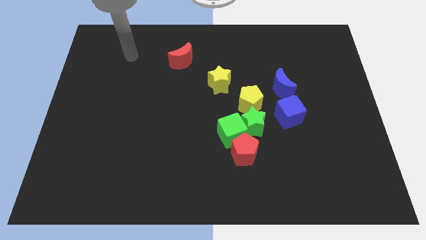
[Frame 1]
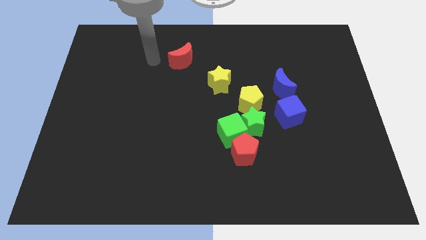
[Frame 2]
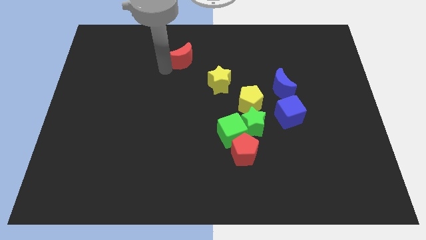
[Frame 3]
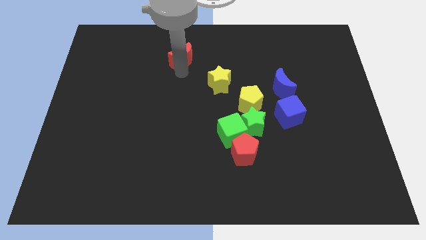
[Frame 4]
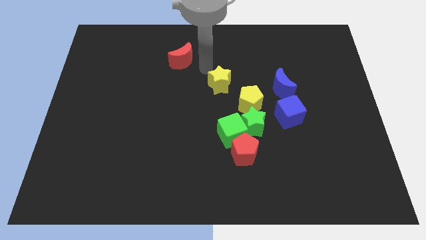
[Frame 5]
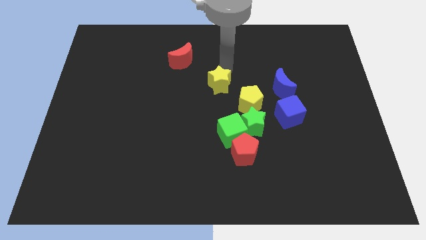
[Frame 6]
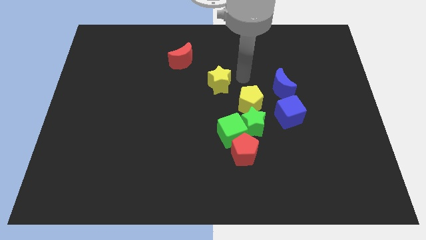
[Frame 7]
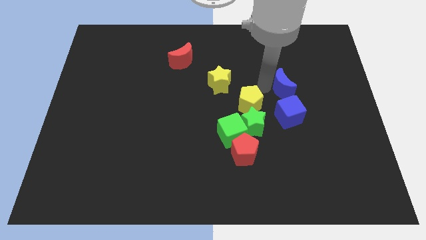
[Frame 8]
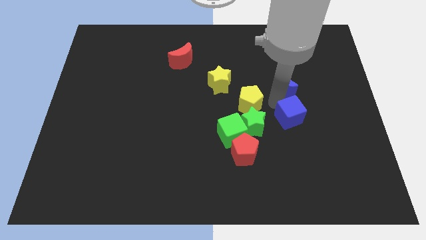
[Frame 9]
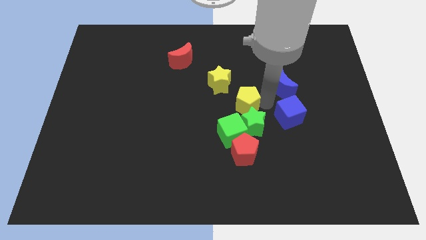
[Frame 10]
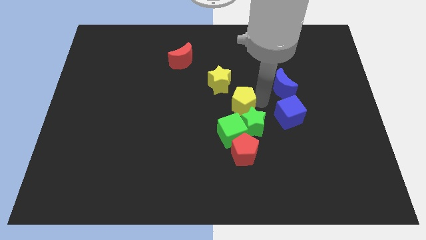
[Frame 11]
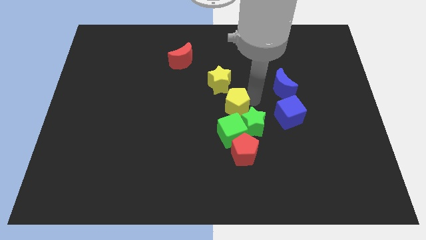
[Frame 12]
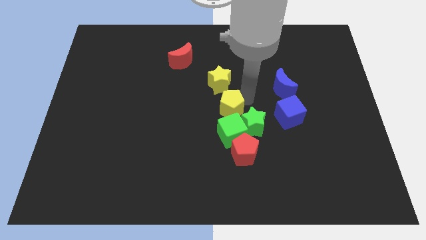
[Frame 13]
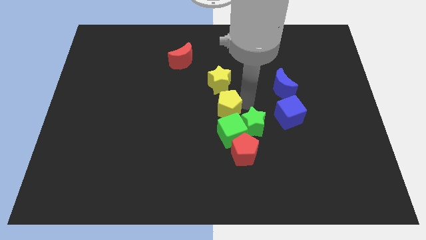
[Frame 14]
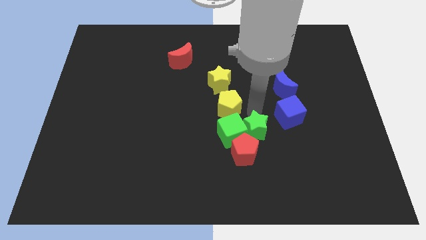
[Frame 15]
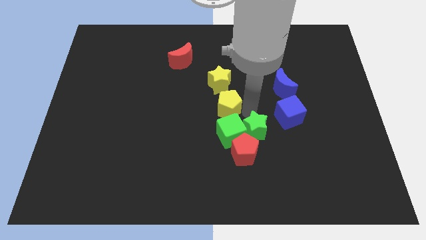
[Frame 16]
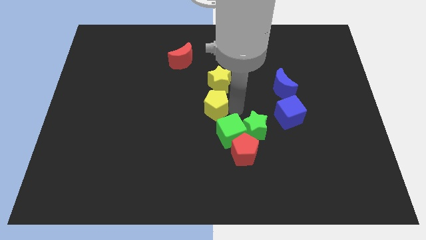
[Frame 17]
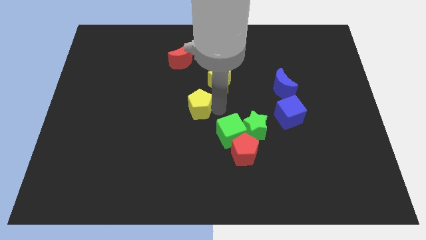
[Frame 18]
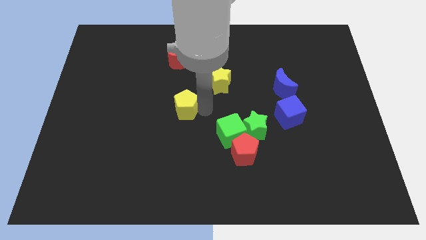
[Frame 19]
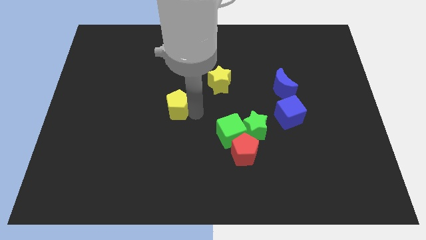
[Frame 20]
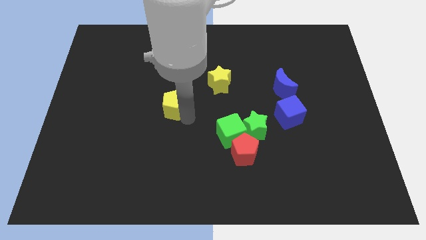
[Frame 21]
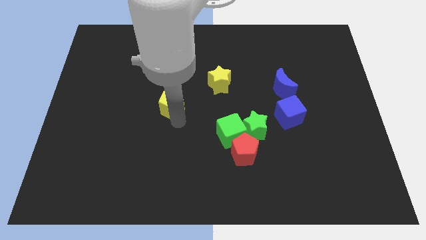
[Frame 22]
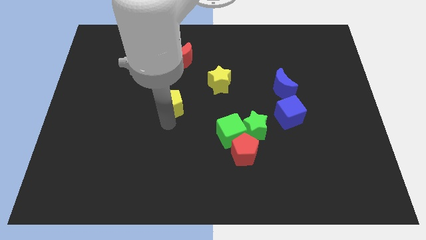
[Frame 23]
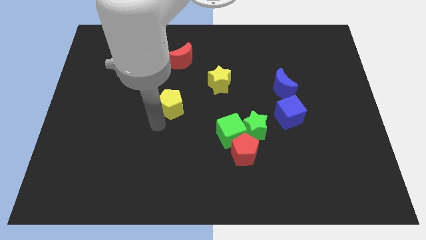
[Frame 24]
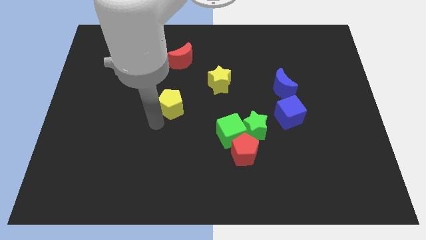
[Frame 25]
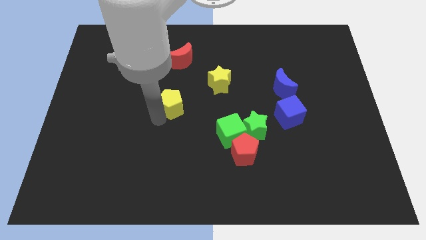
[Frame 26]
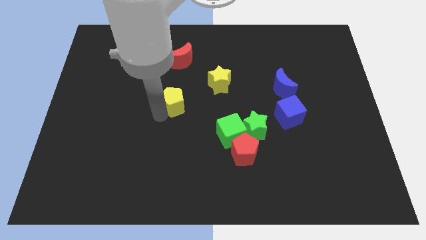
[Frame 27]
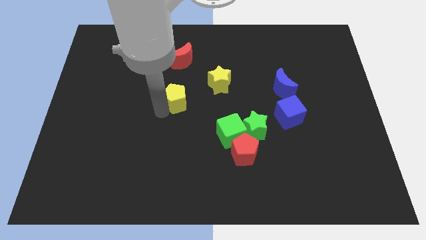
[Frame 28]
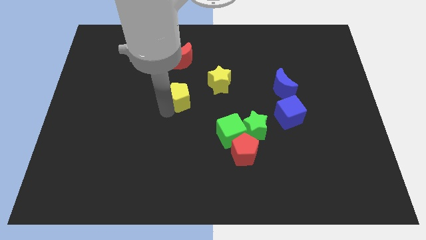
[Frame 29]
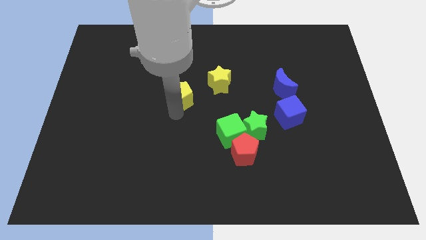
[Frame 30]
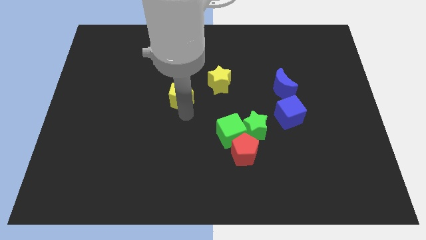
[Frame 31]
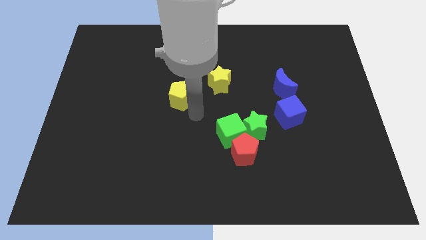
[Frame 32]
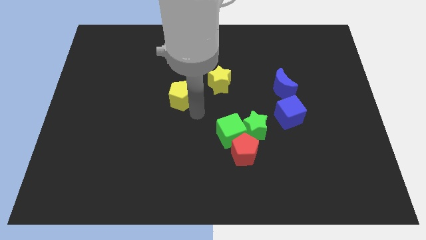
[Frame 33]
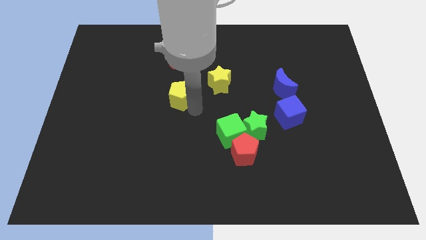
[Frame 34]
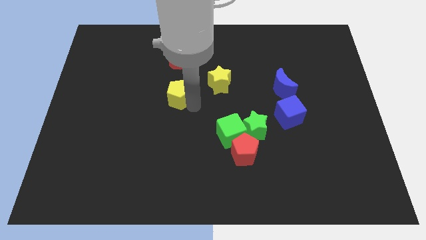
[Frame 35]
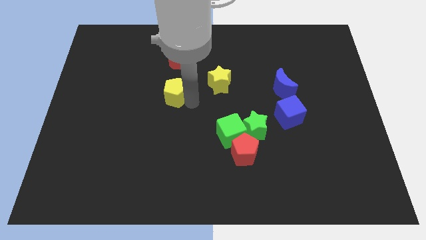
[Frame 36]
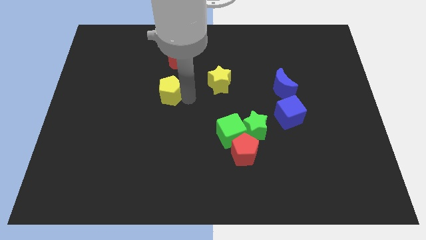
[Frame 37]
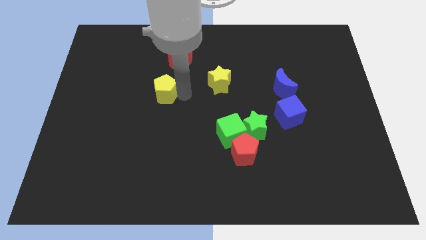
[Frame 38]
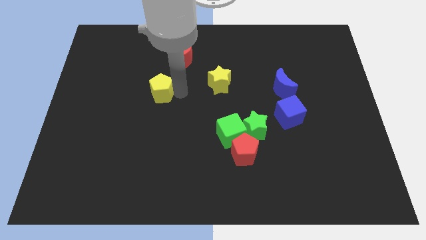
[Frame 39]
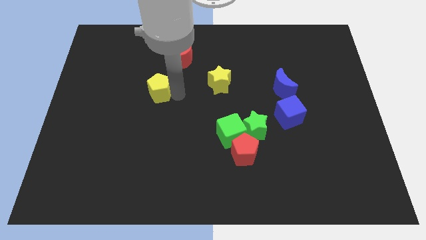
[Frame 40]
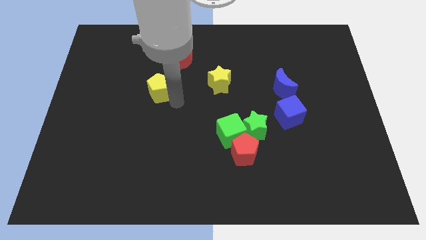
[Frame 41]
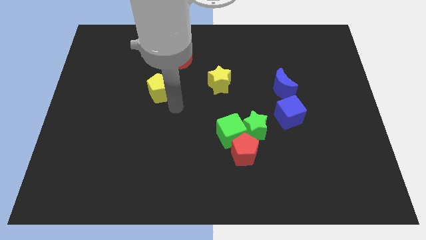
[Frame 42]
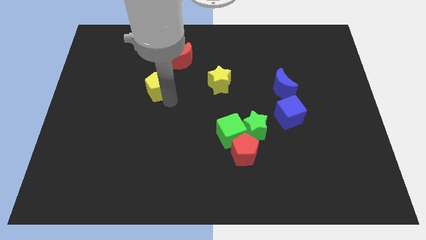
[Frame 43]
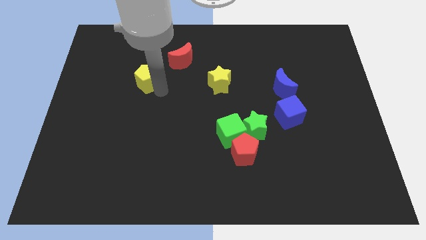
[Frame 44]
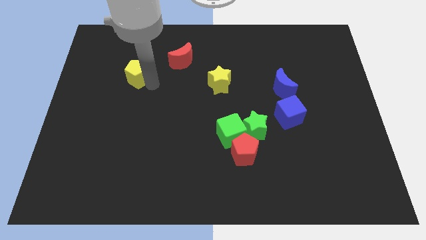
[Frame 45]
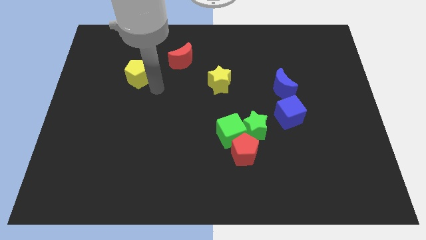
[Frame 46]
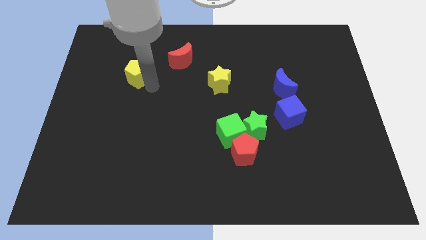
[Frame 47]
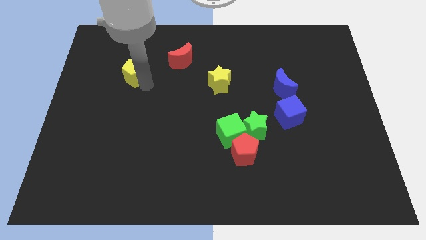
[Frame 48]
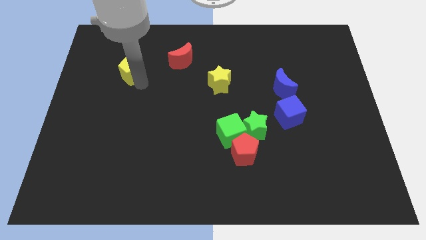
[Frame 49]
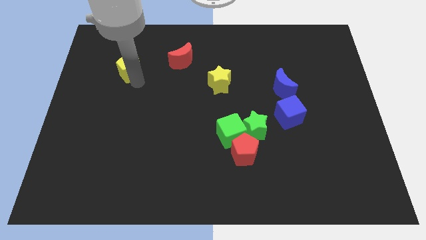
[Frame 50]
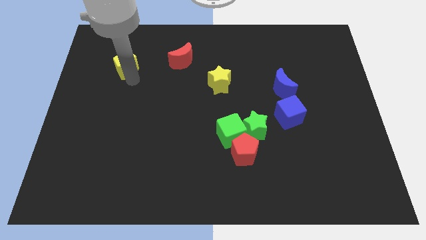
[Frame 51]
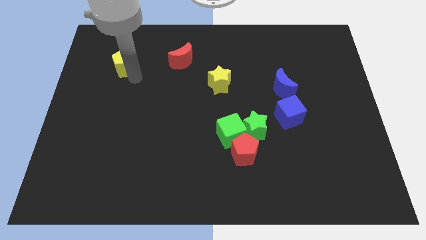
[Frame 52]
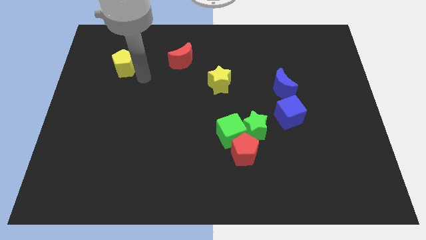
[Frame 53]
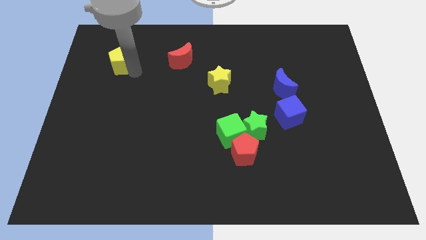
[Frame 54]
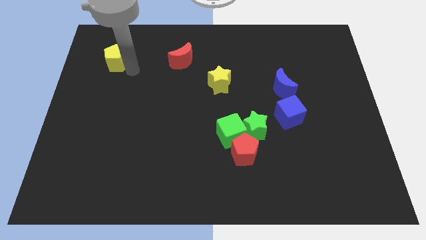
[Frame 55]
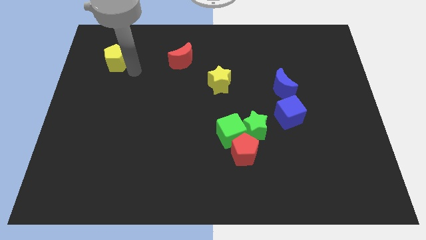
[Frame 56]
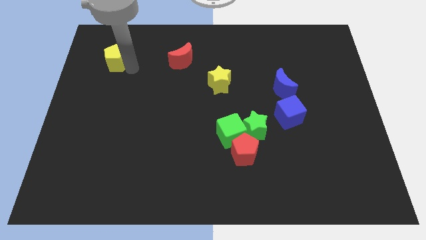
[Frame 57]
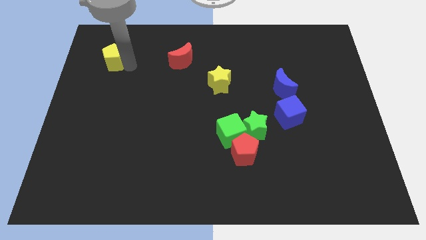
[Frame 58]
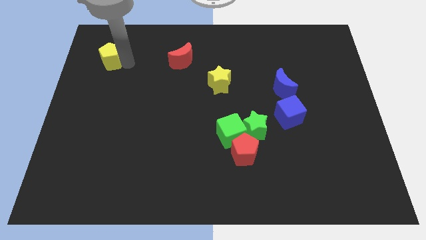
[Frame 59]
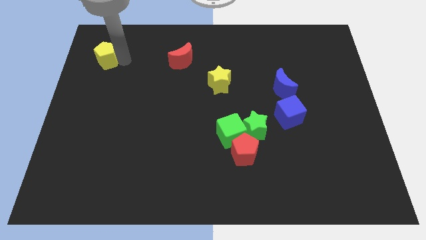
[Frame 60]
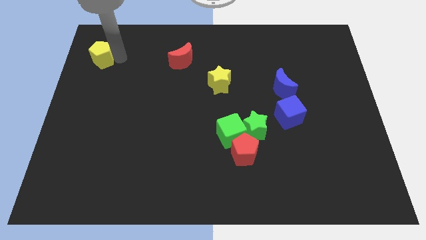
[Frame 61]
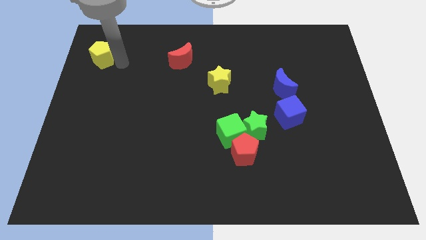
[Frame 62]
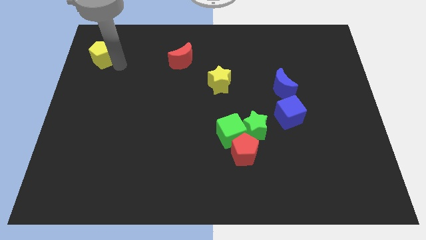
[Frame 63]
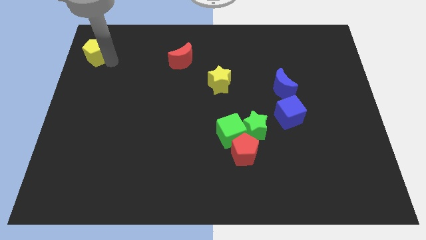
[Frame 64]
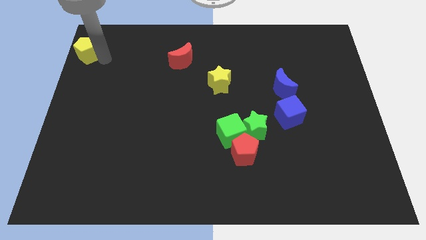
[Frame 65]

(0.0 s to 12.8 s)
put the yellow pentagon to the top left
